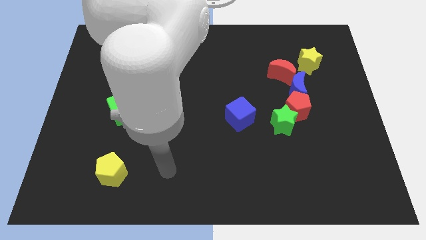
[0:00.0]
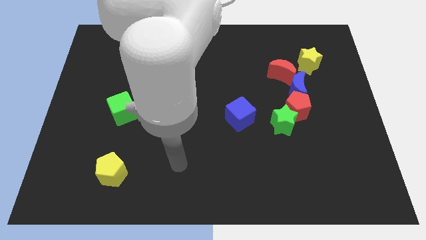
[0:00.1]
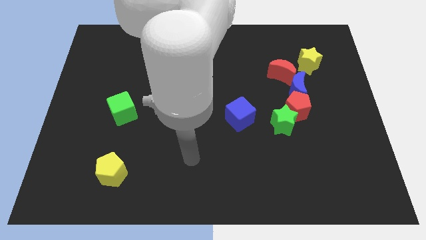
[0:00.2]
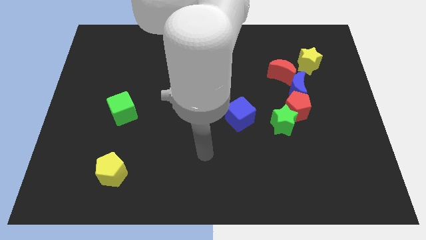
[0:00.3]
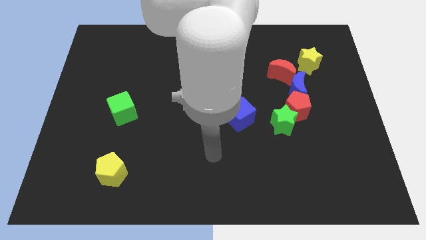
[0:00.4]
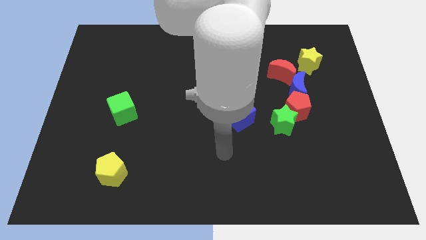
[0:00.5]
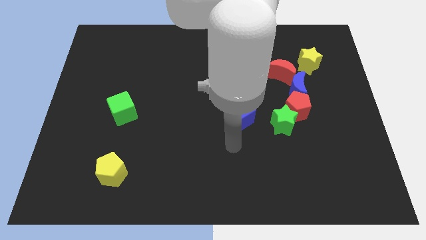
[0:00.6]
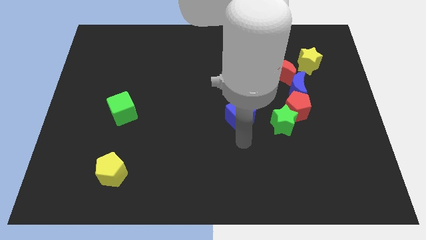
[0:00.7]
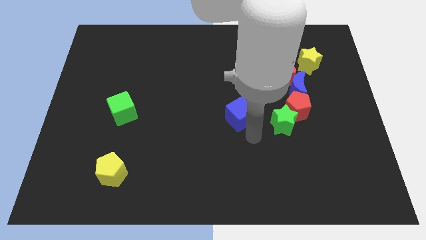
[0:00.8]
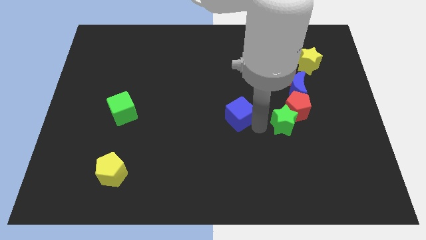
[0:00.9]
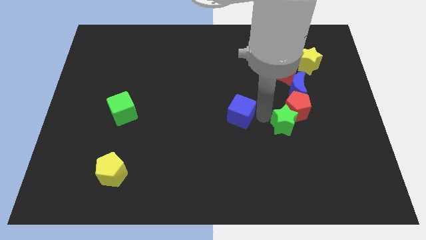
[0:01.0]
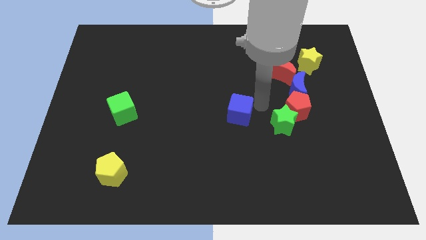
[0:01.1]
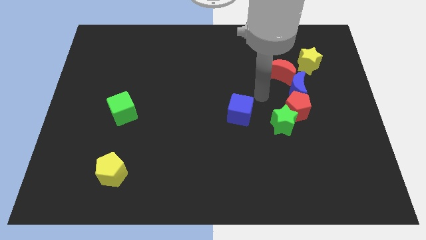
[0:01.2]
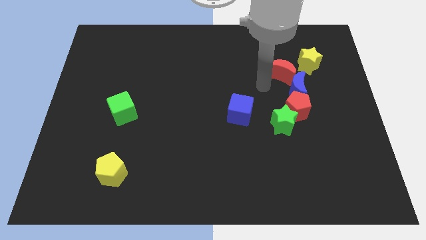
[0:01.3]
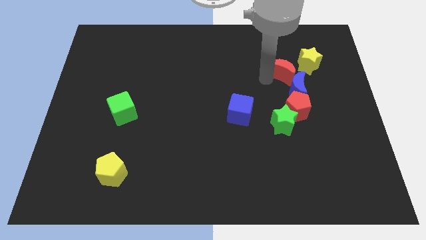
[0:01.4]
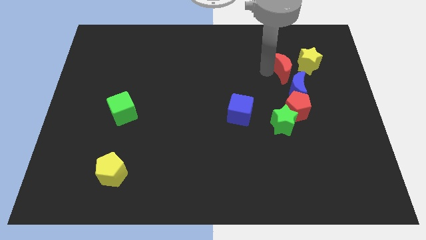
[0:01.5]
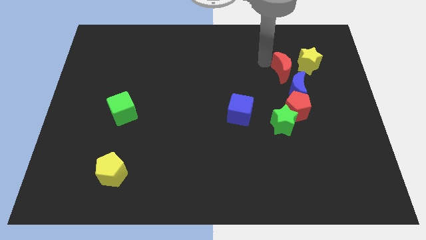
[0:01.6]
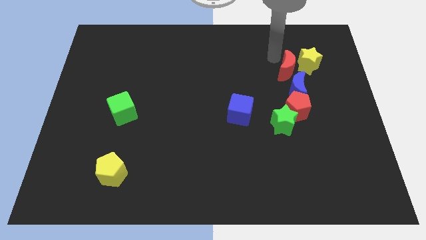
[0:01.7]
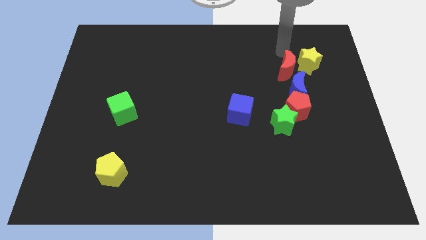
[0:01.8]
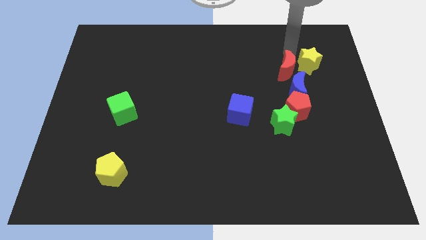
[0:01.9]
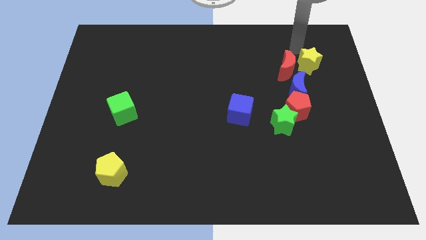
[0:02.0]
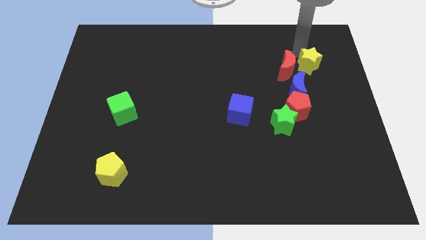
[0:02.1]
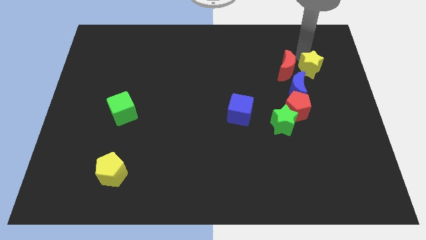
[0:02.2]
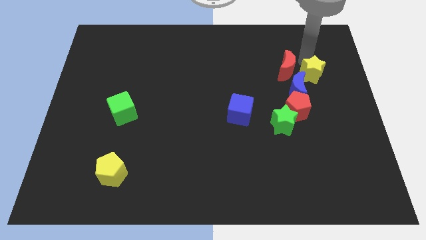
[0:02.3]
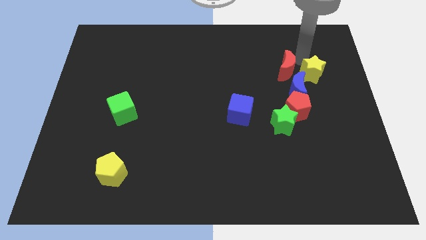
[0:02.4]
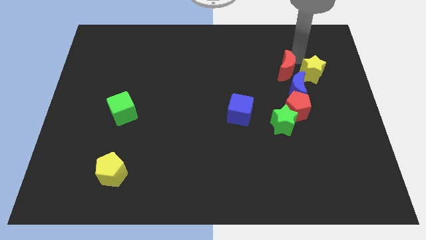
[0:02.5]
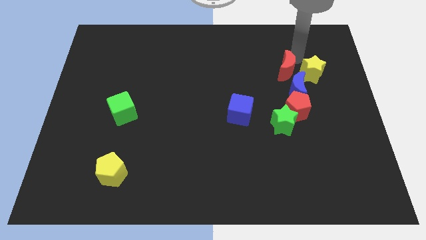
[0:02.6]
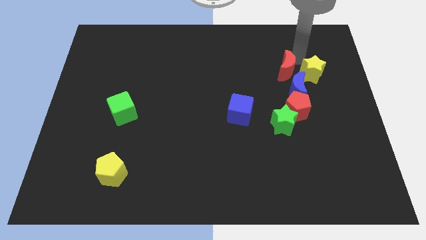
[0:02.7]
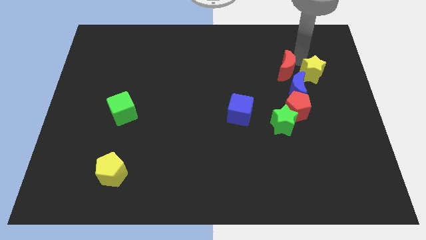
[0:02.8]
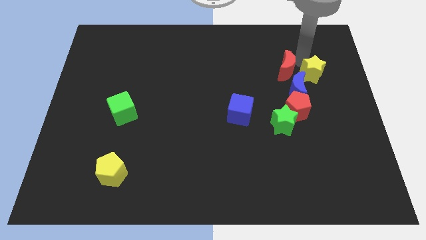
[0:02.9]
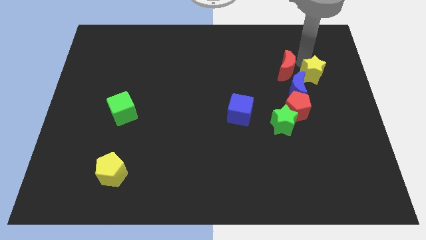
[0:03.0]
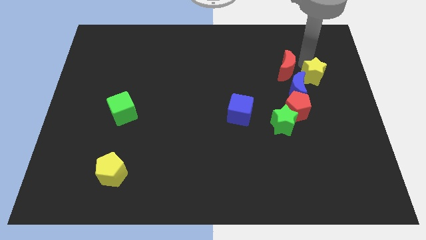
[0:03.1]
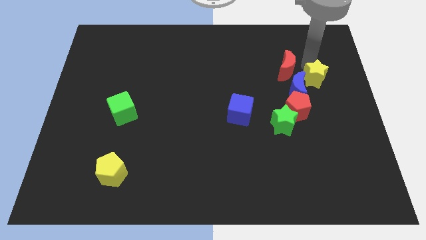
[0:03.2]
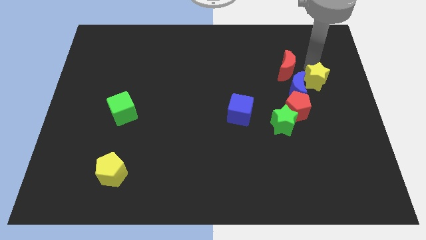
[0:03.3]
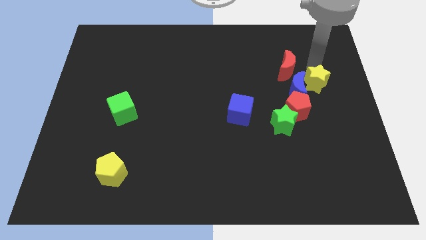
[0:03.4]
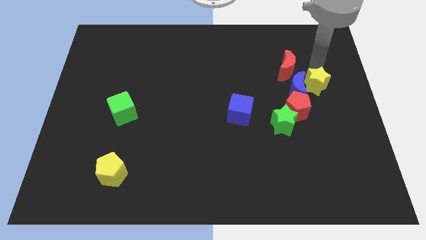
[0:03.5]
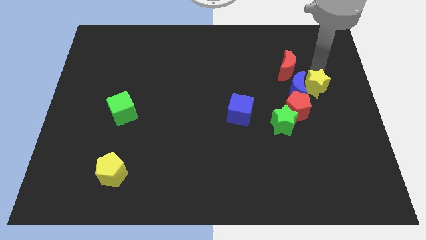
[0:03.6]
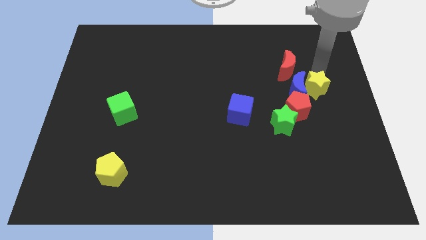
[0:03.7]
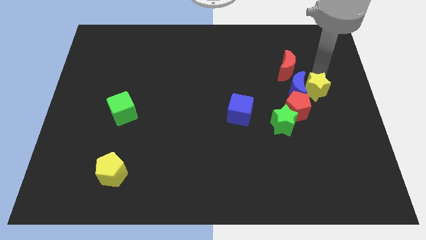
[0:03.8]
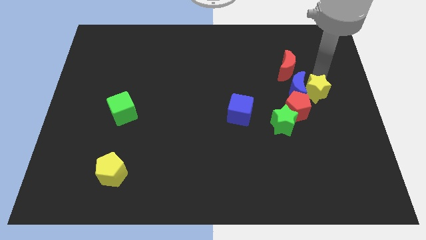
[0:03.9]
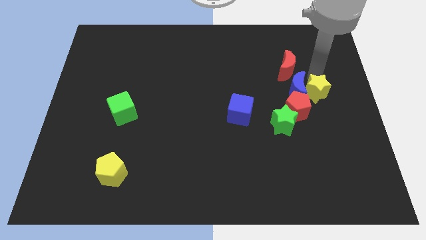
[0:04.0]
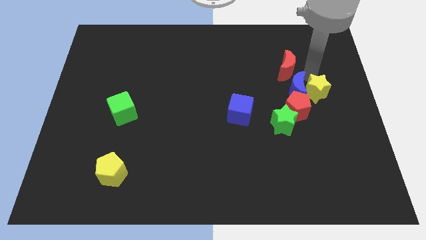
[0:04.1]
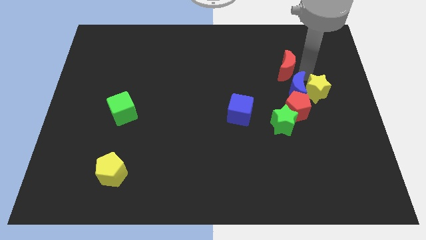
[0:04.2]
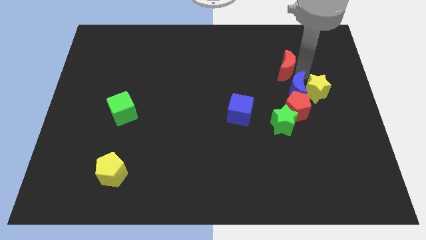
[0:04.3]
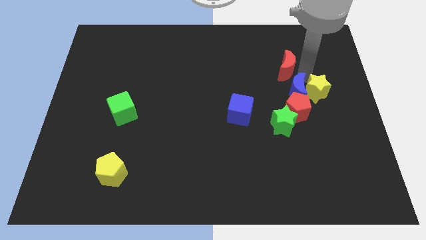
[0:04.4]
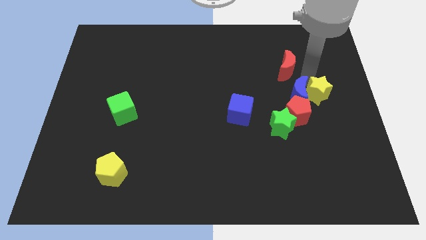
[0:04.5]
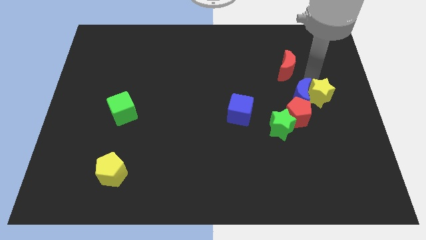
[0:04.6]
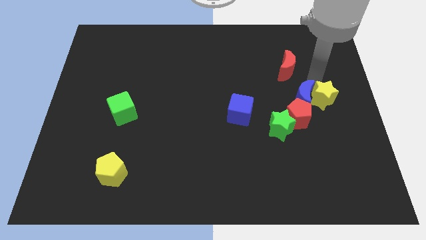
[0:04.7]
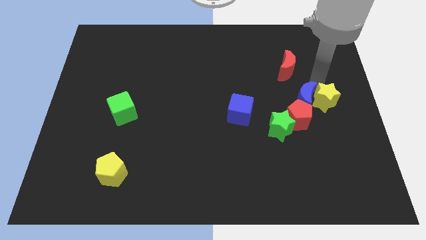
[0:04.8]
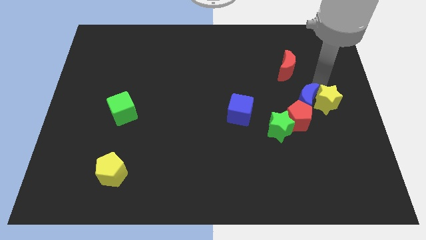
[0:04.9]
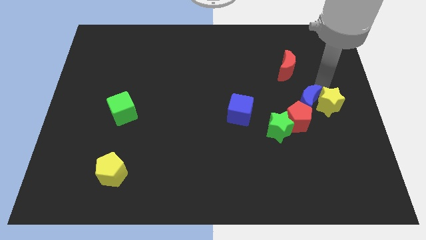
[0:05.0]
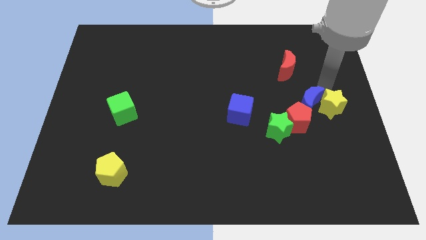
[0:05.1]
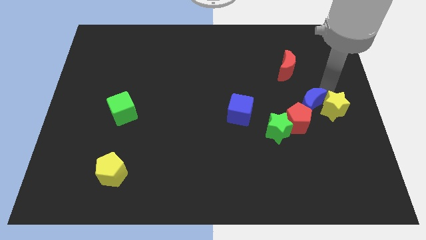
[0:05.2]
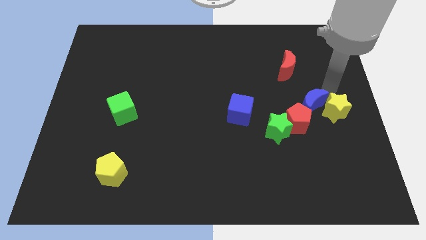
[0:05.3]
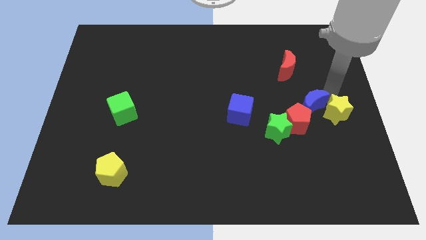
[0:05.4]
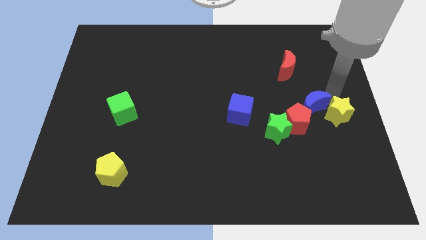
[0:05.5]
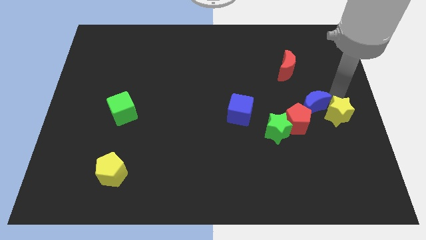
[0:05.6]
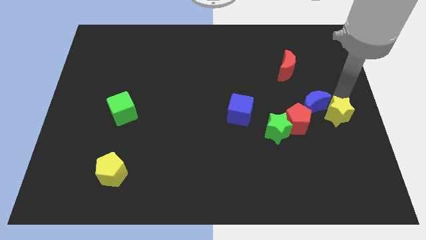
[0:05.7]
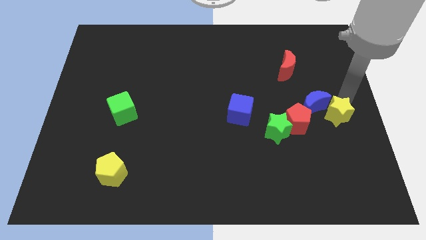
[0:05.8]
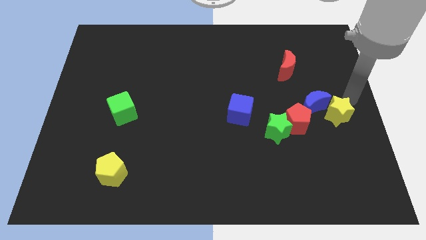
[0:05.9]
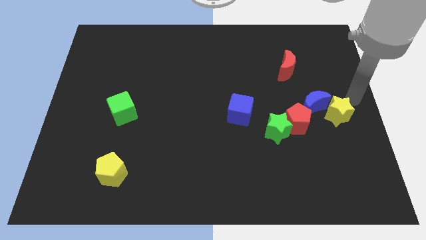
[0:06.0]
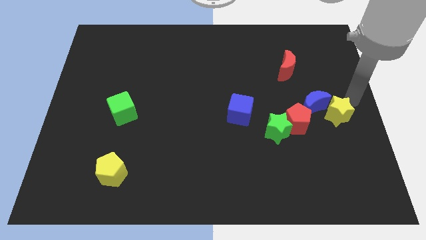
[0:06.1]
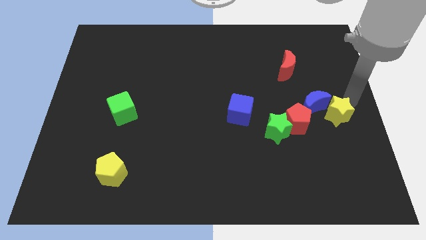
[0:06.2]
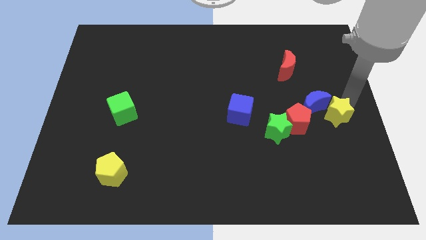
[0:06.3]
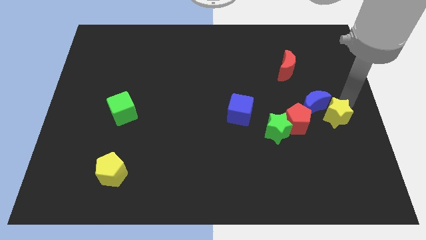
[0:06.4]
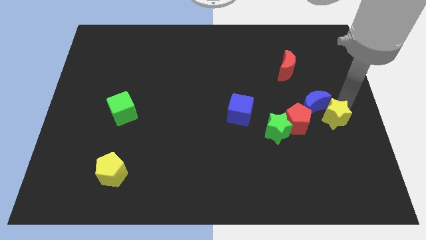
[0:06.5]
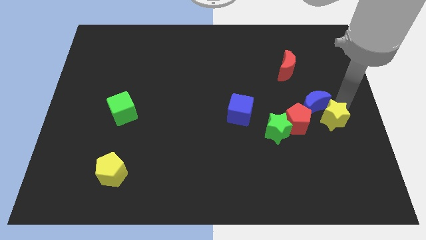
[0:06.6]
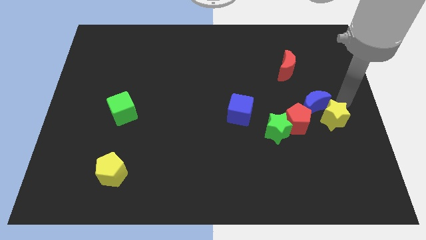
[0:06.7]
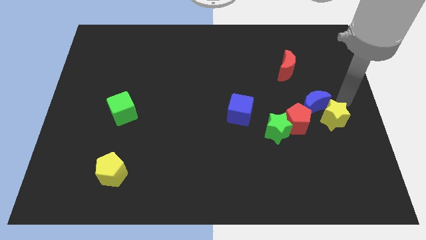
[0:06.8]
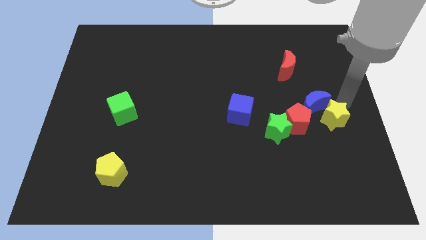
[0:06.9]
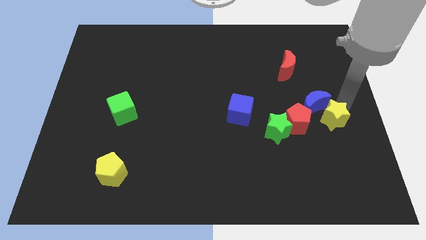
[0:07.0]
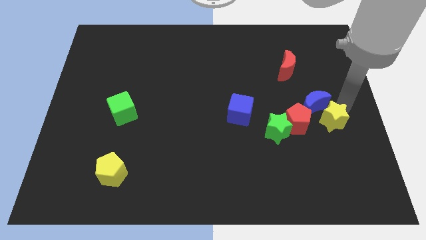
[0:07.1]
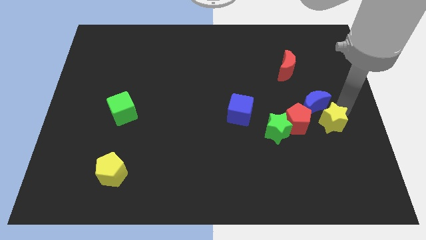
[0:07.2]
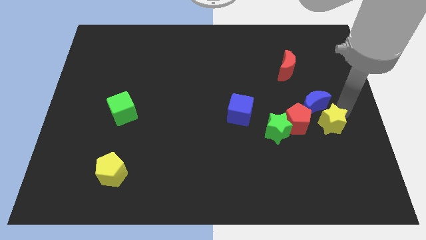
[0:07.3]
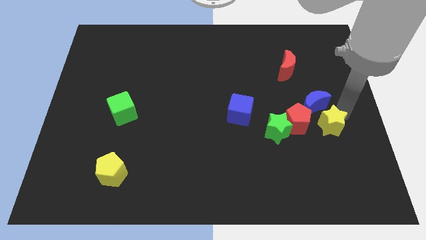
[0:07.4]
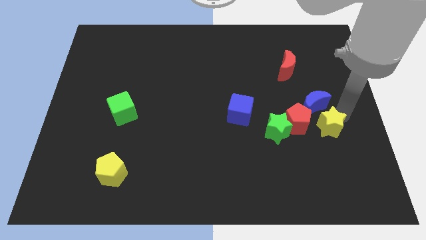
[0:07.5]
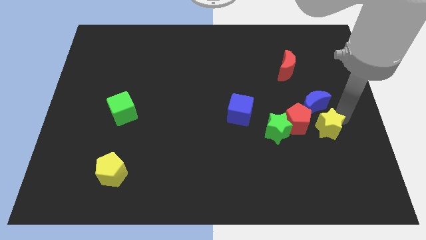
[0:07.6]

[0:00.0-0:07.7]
push the yellow star down

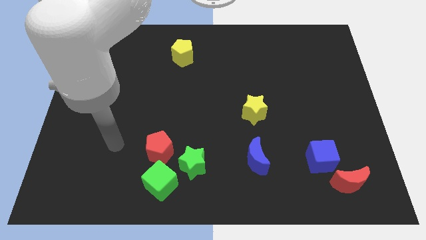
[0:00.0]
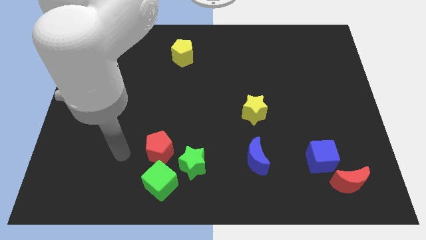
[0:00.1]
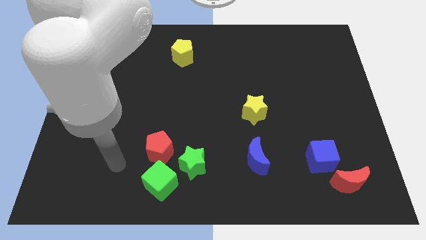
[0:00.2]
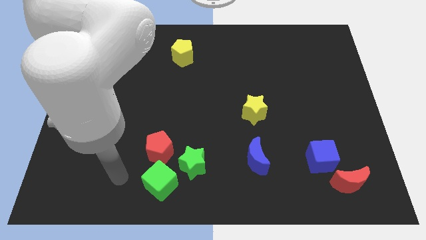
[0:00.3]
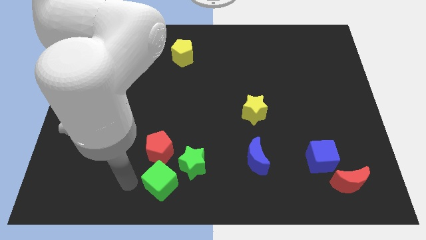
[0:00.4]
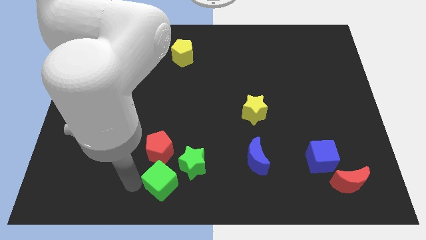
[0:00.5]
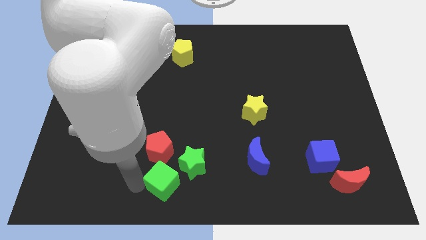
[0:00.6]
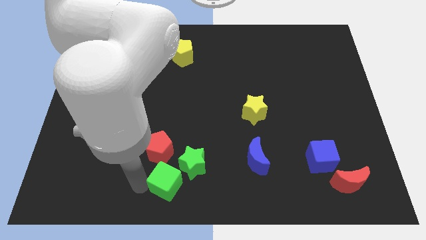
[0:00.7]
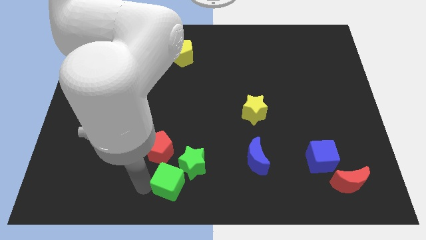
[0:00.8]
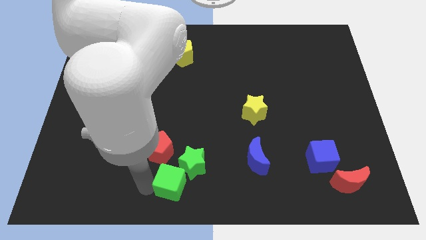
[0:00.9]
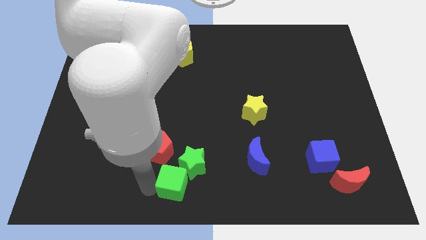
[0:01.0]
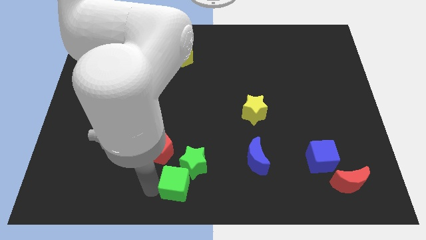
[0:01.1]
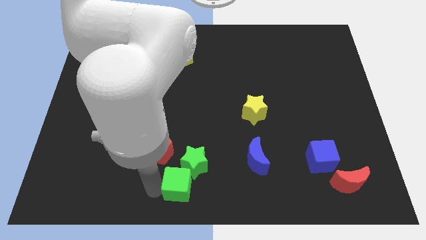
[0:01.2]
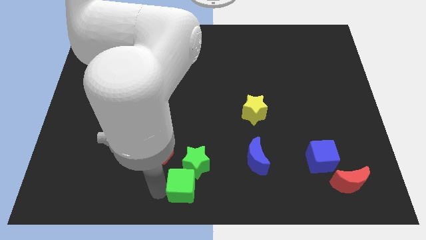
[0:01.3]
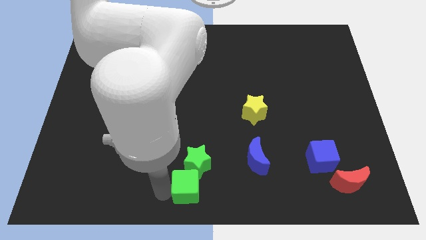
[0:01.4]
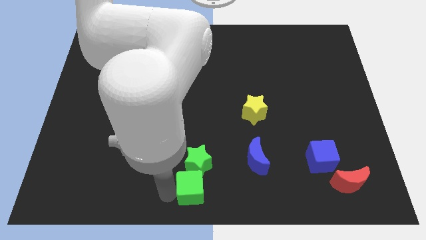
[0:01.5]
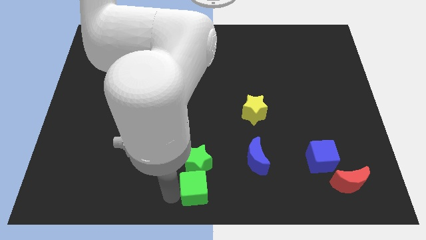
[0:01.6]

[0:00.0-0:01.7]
slightly move the green cube right
